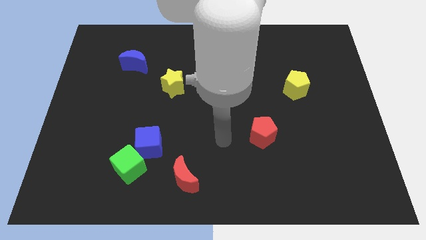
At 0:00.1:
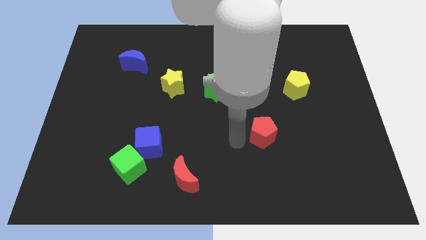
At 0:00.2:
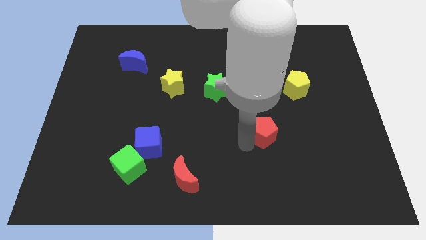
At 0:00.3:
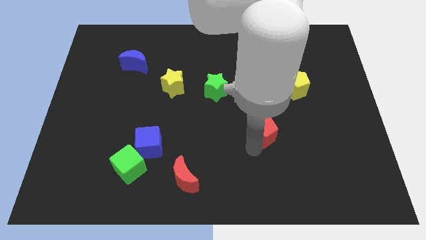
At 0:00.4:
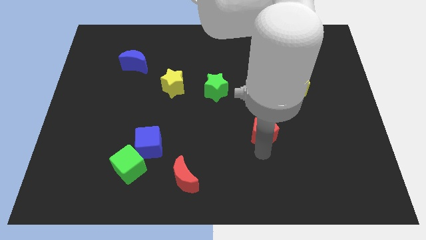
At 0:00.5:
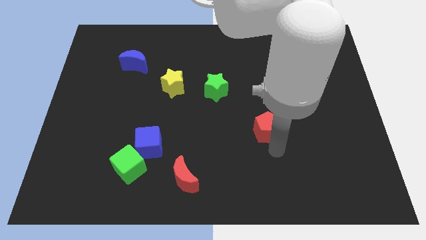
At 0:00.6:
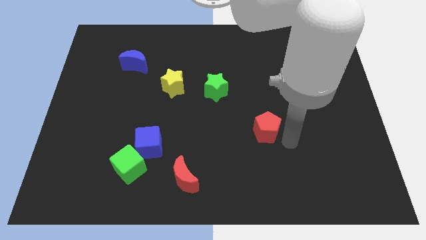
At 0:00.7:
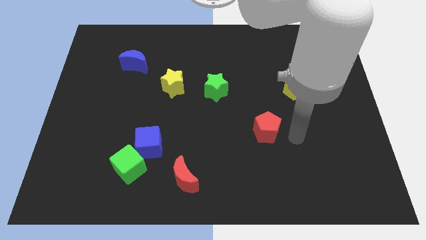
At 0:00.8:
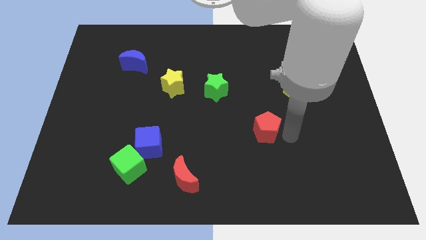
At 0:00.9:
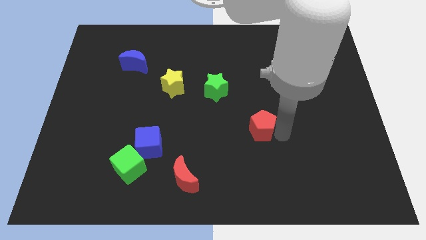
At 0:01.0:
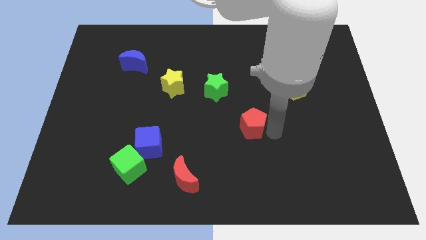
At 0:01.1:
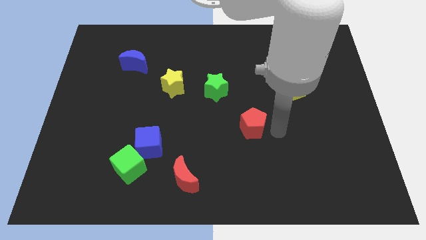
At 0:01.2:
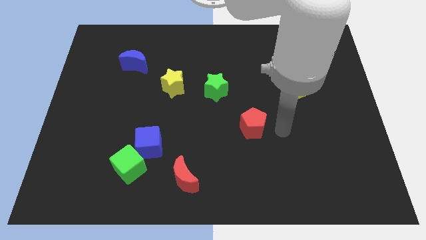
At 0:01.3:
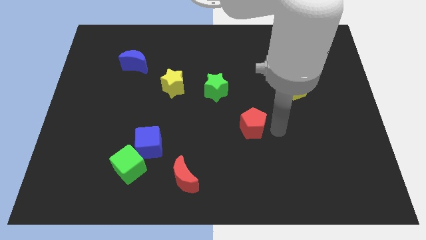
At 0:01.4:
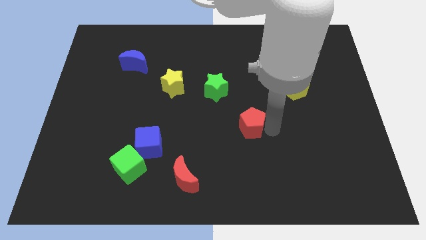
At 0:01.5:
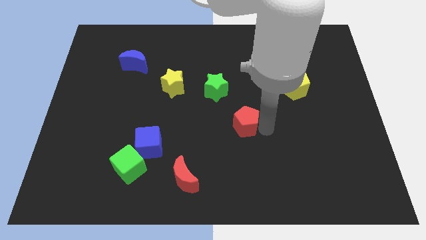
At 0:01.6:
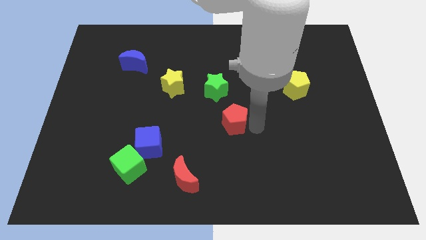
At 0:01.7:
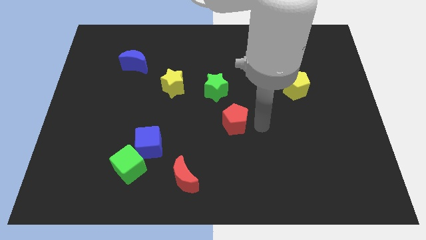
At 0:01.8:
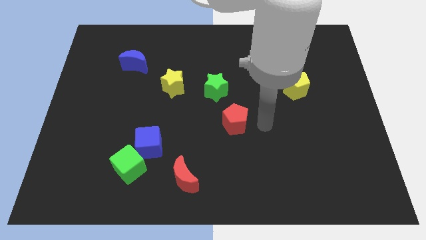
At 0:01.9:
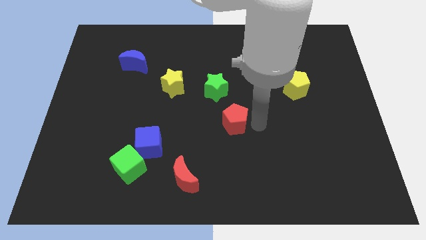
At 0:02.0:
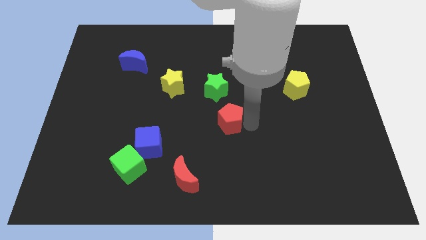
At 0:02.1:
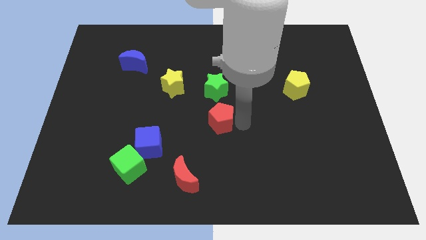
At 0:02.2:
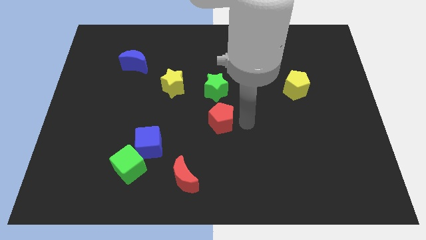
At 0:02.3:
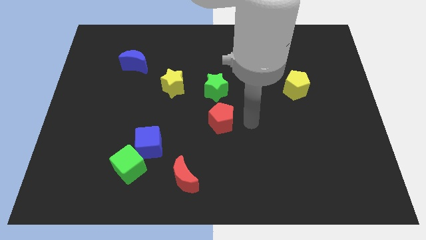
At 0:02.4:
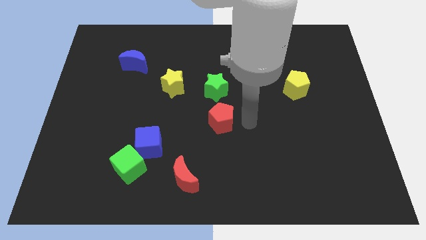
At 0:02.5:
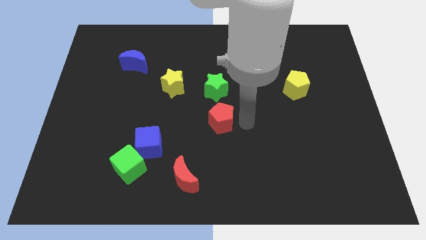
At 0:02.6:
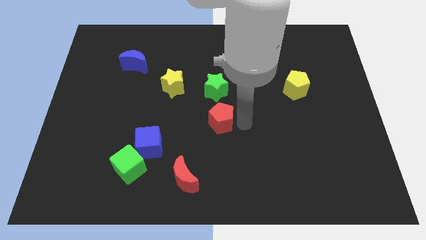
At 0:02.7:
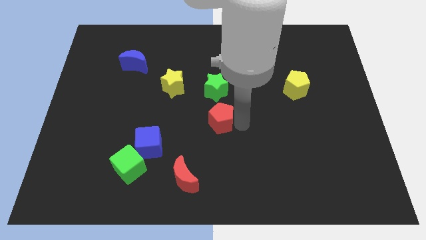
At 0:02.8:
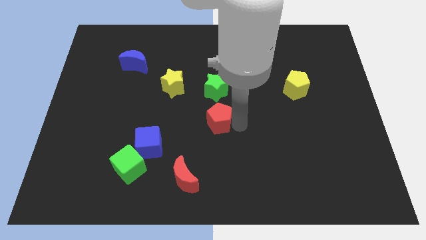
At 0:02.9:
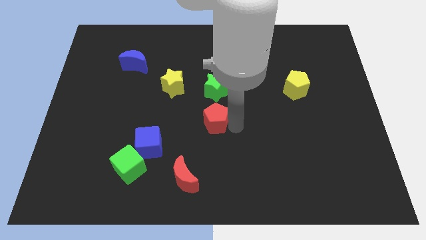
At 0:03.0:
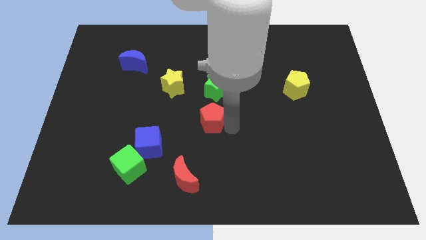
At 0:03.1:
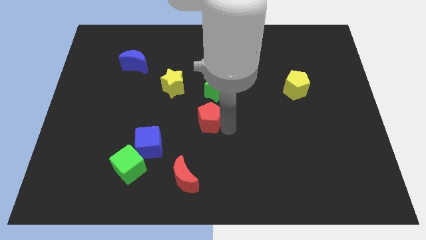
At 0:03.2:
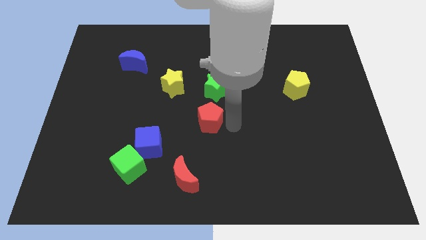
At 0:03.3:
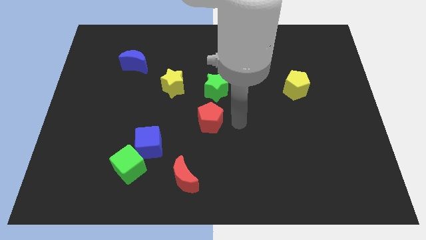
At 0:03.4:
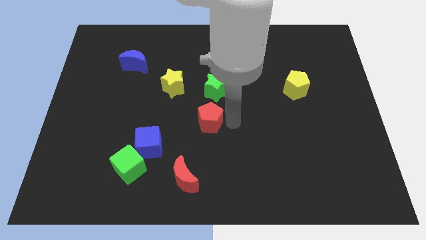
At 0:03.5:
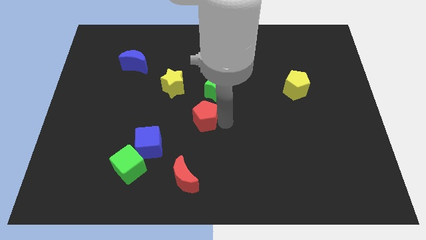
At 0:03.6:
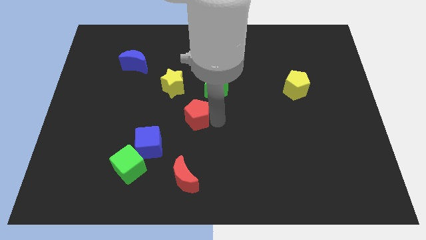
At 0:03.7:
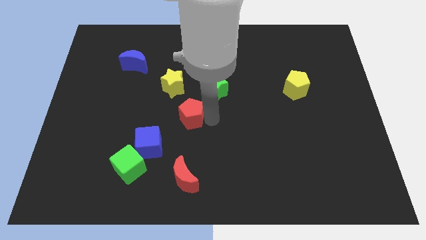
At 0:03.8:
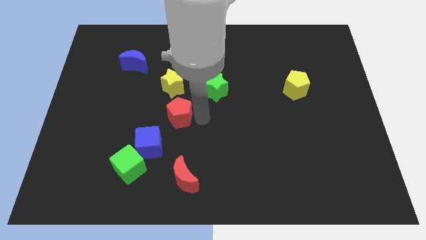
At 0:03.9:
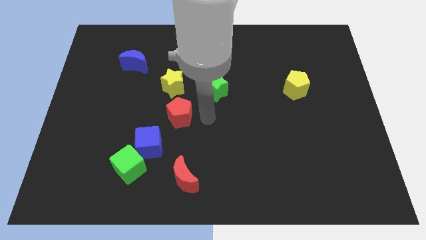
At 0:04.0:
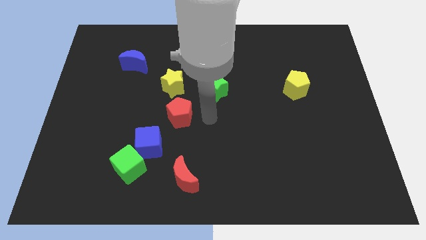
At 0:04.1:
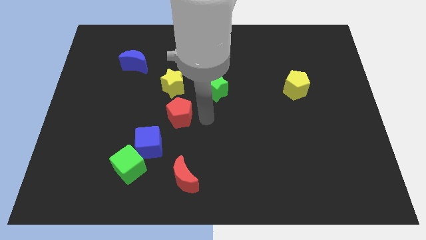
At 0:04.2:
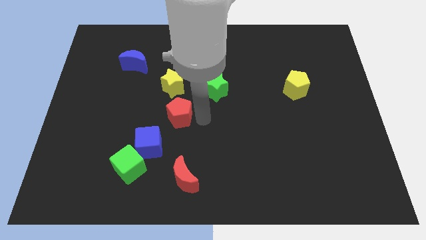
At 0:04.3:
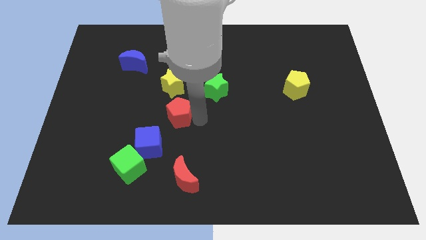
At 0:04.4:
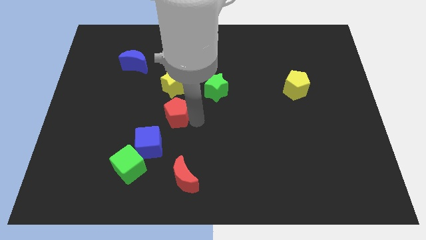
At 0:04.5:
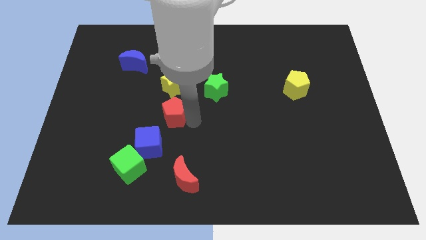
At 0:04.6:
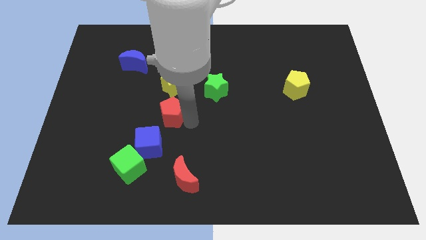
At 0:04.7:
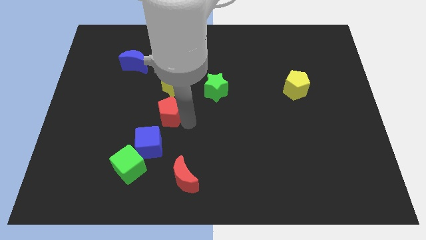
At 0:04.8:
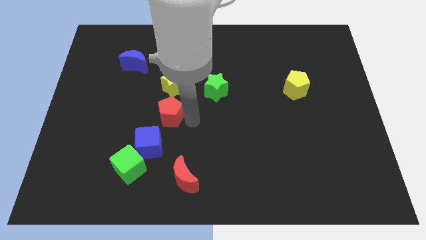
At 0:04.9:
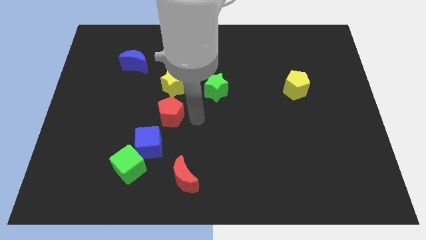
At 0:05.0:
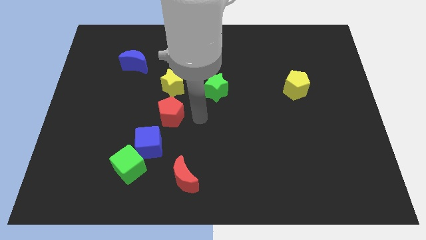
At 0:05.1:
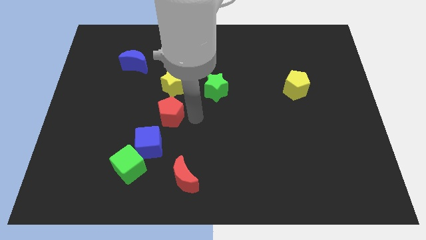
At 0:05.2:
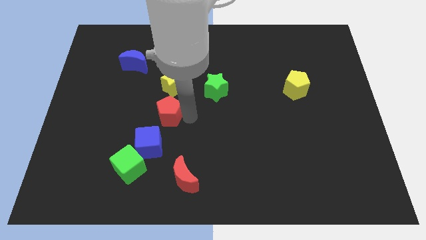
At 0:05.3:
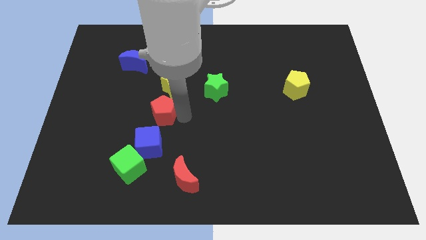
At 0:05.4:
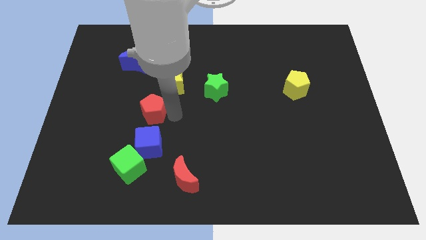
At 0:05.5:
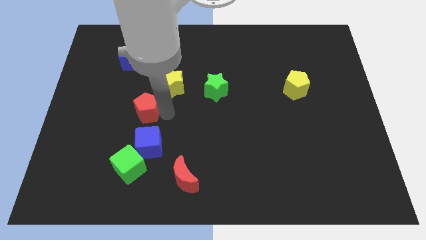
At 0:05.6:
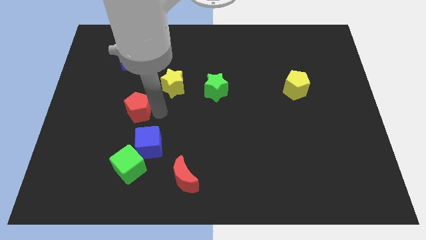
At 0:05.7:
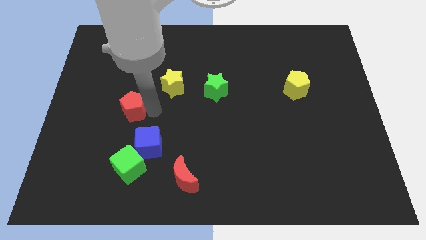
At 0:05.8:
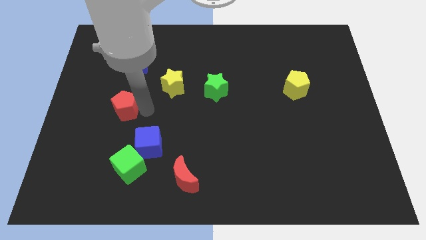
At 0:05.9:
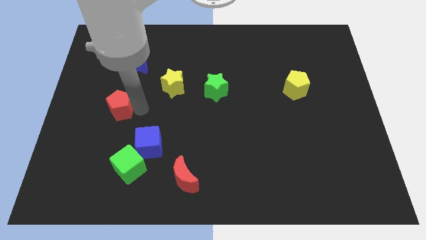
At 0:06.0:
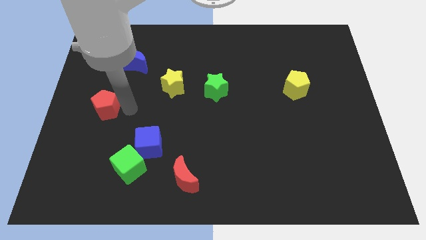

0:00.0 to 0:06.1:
slide the red pentagon to the center left
